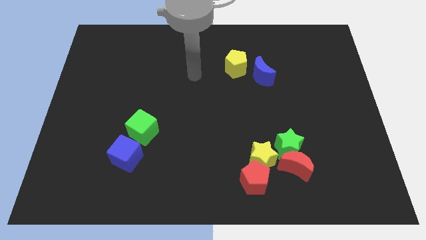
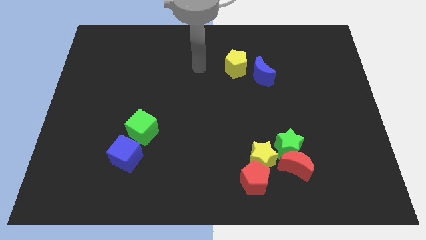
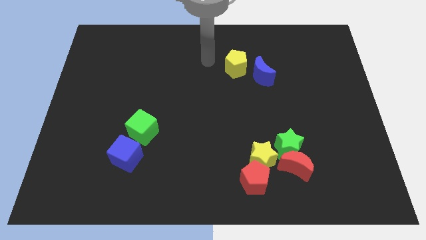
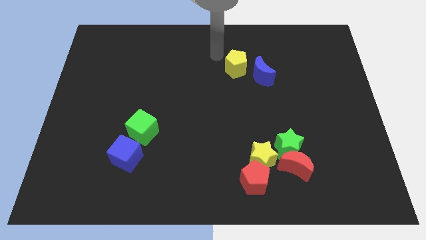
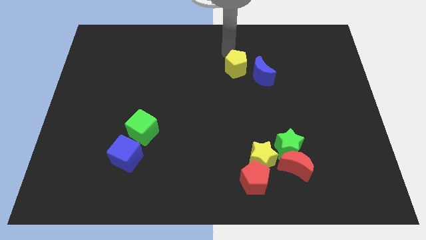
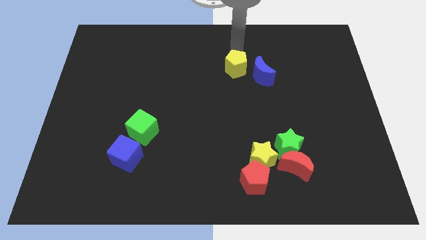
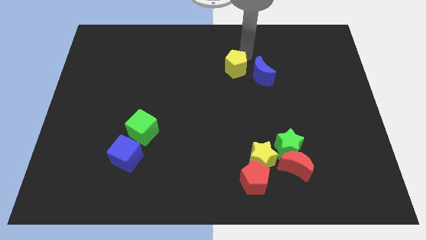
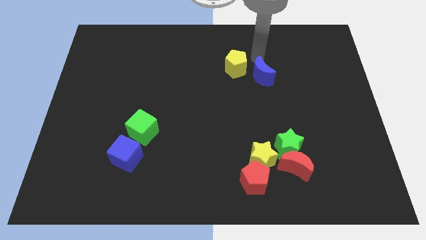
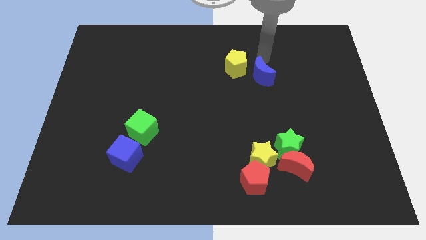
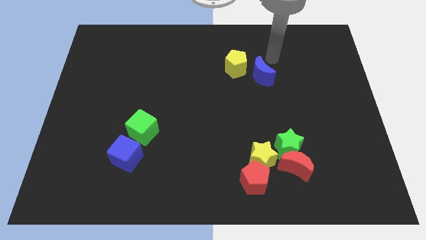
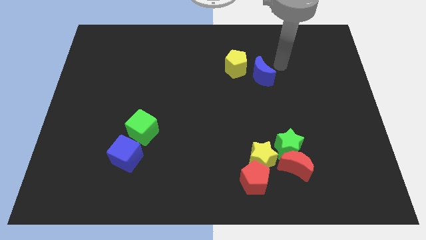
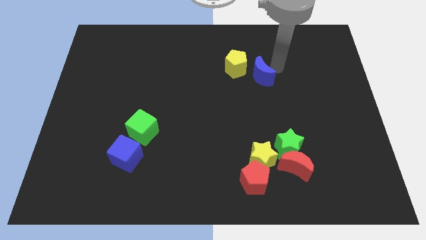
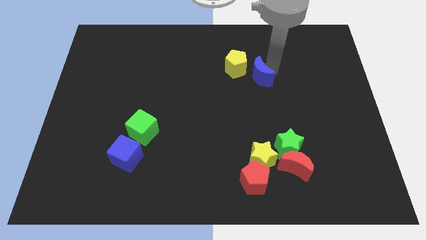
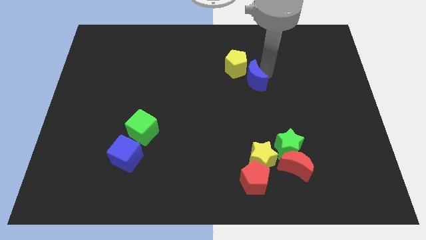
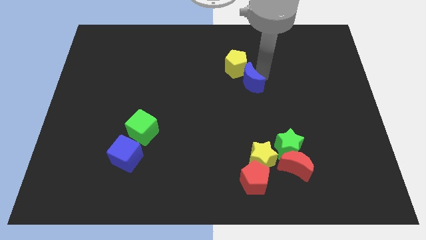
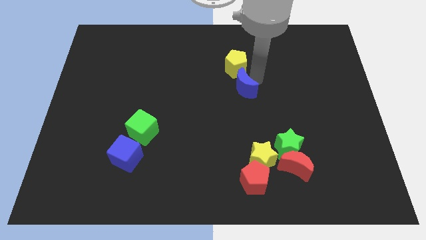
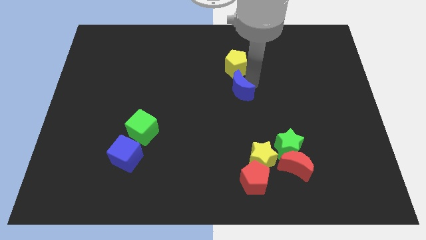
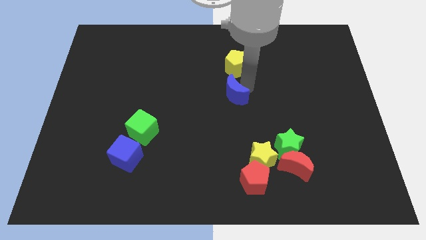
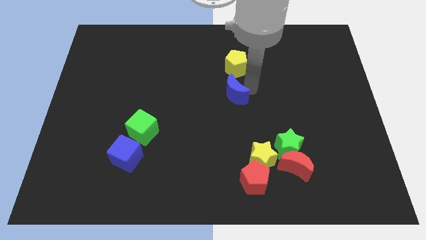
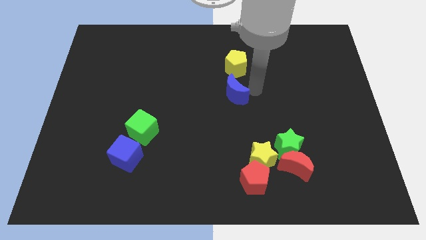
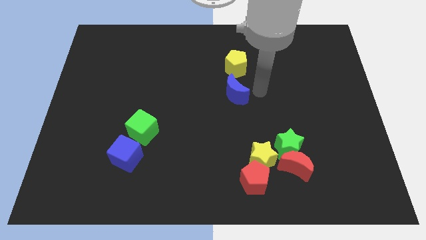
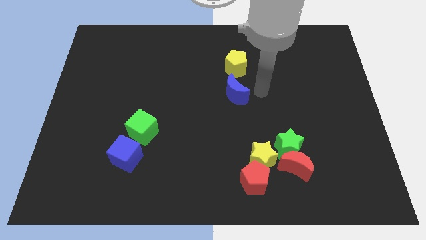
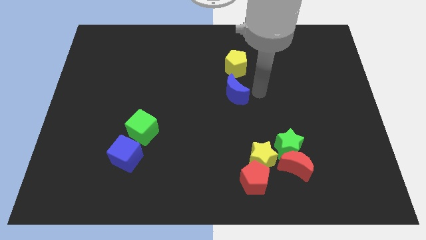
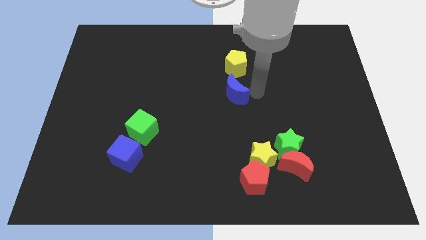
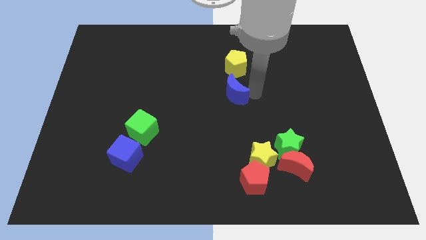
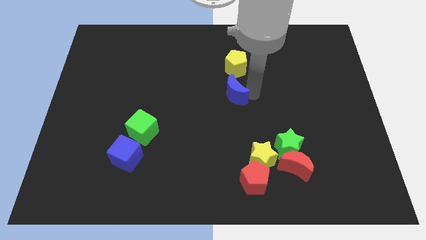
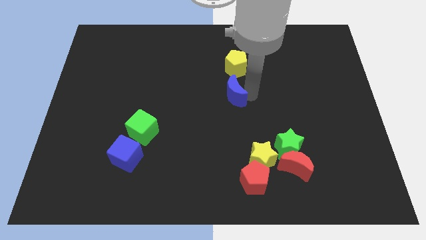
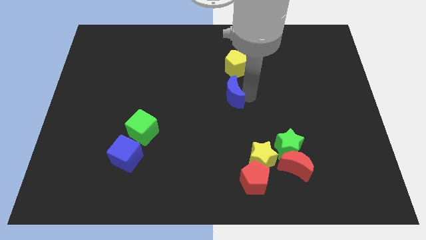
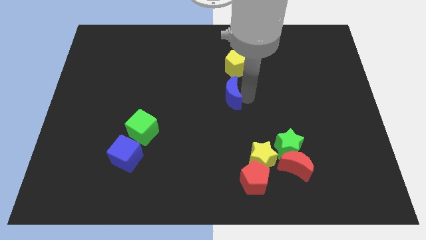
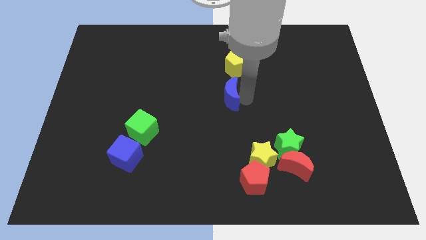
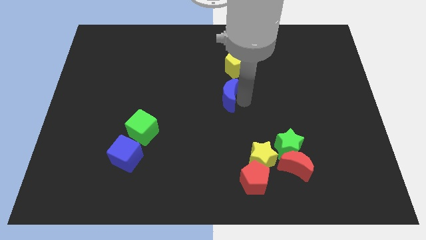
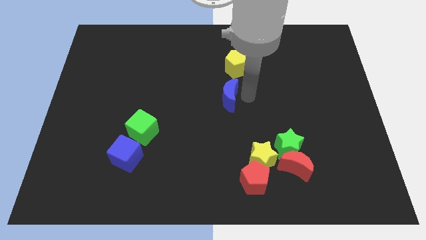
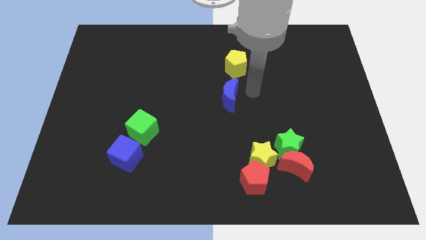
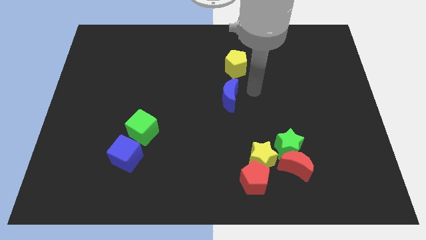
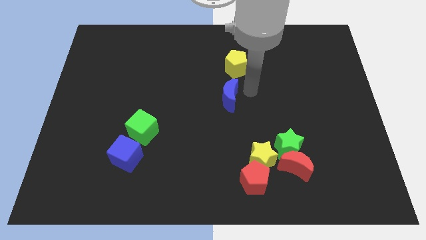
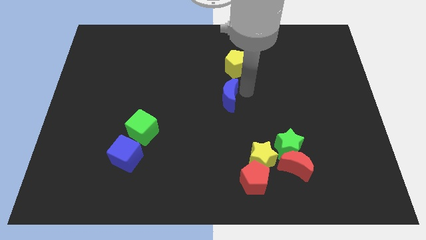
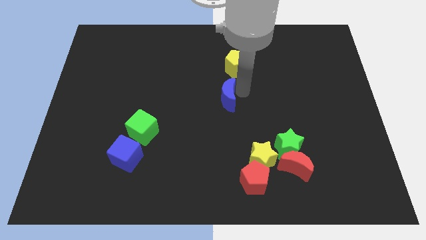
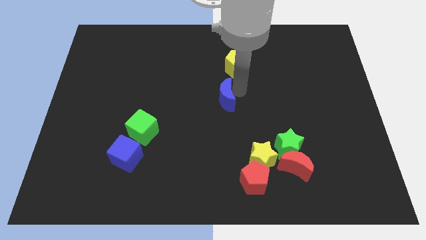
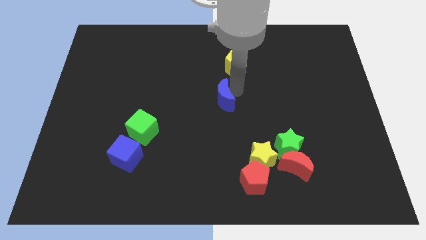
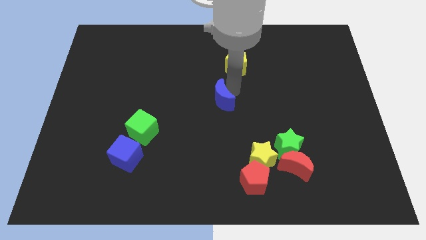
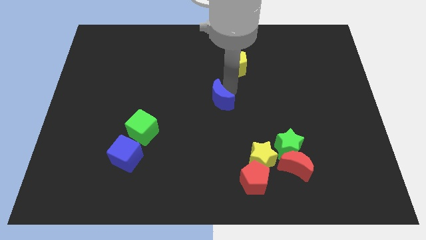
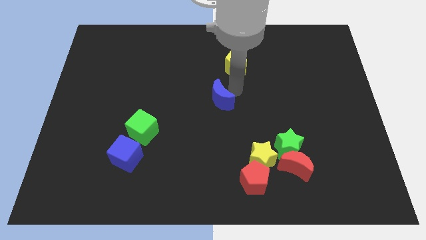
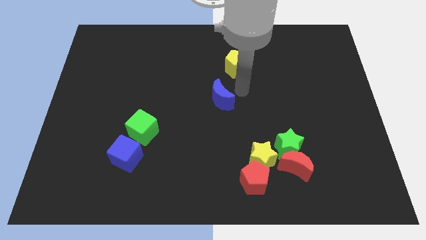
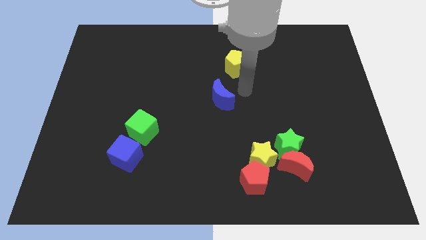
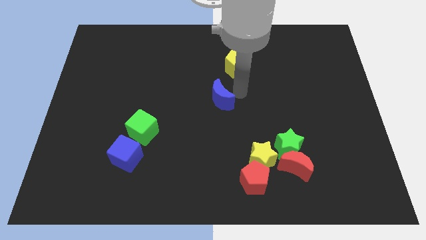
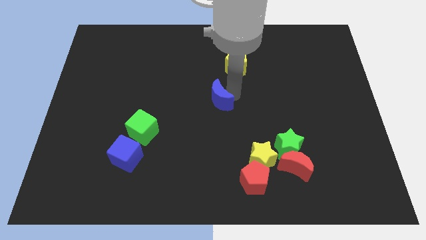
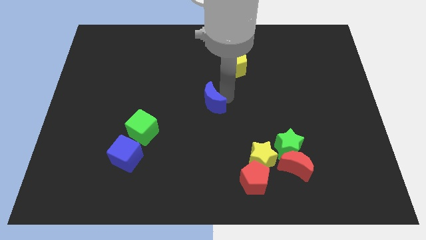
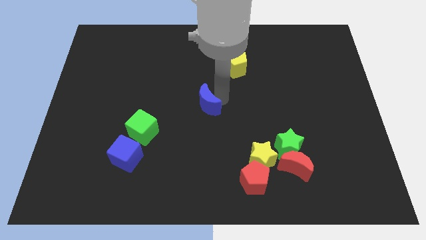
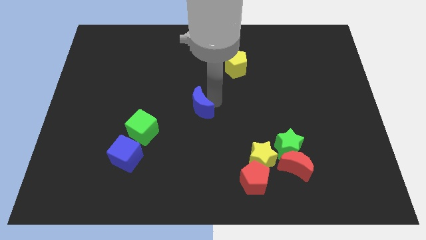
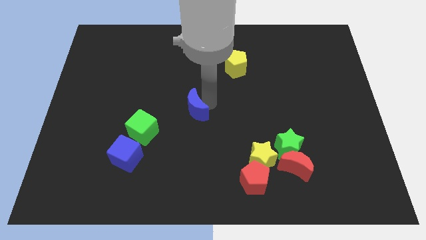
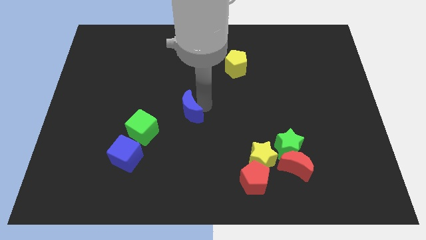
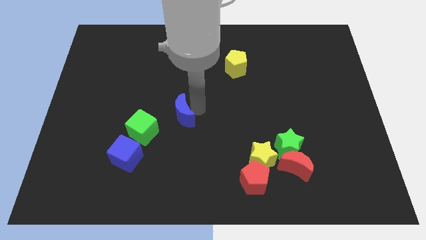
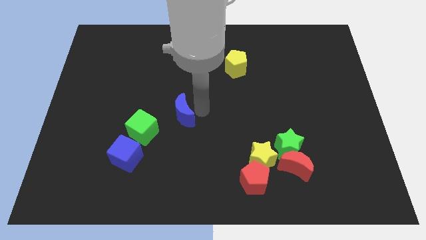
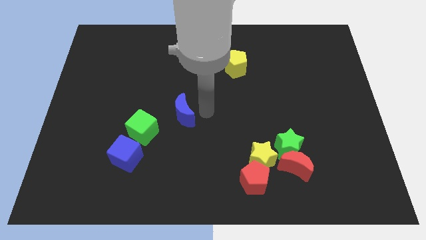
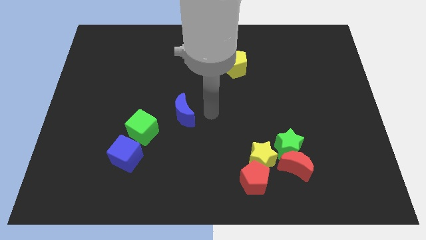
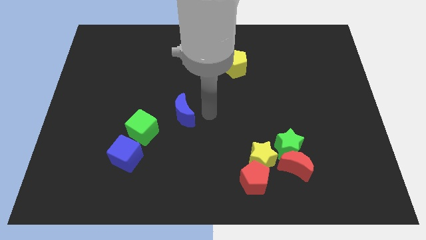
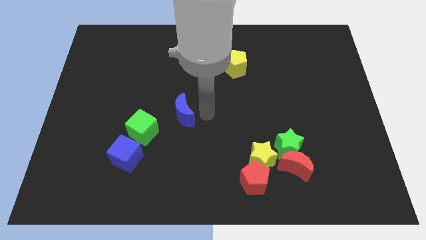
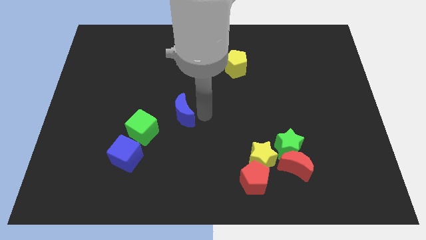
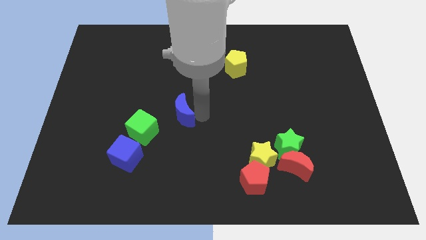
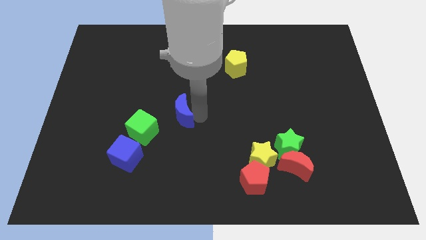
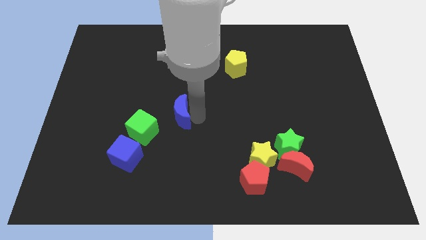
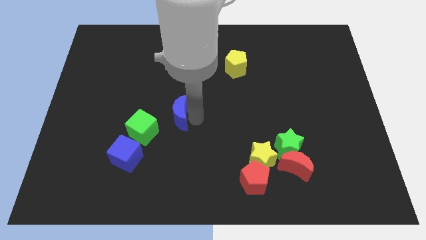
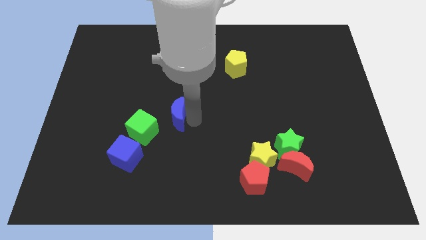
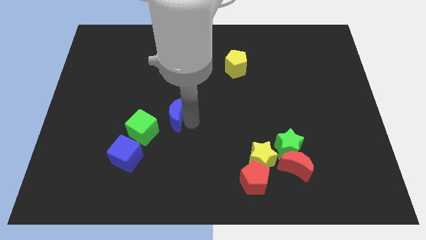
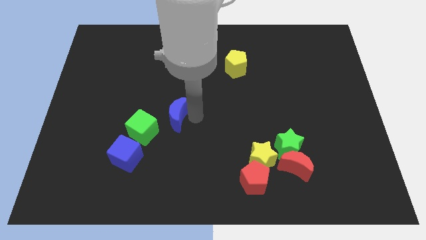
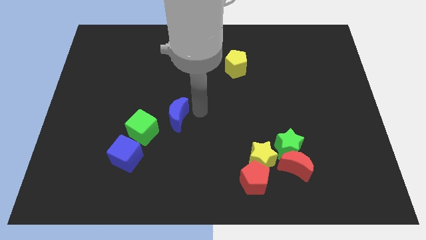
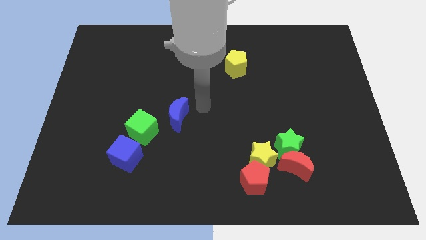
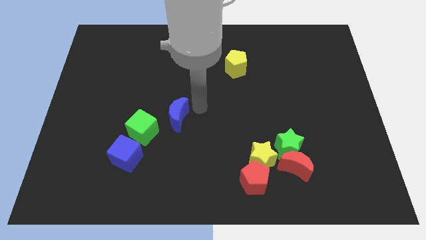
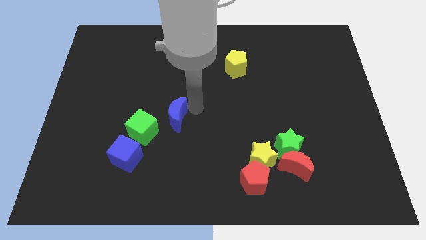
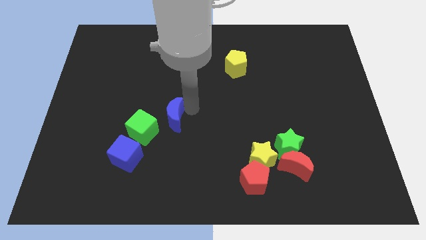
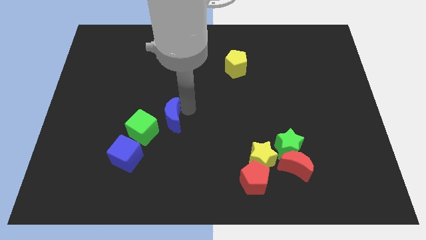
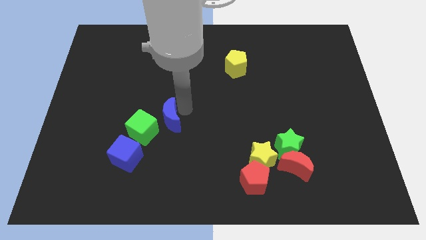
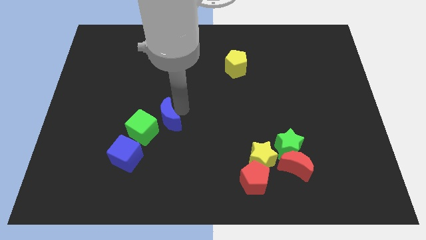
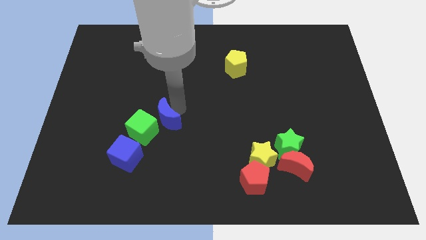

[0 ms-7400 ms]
put the blue moon towards the green cube
